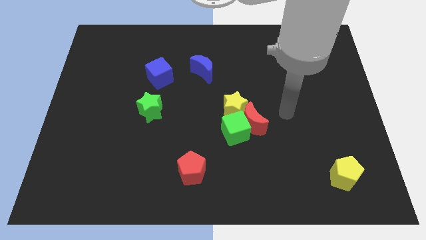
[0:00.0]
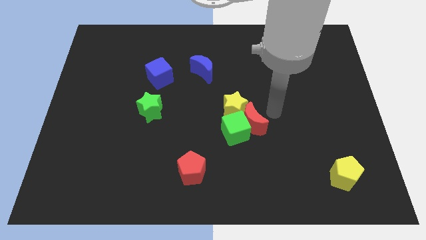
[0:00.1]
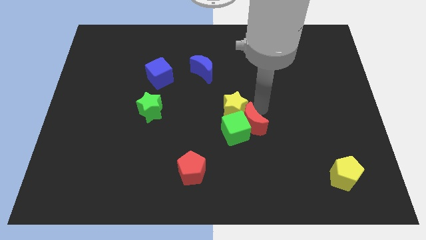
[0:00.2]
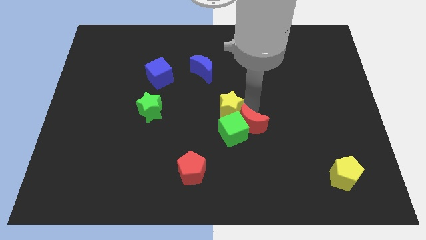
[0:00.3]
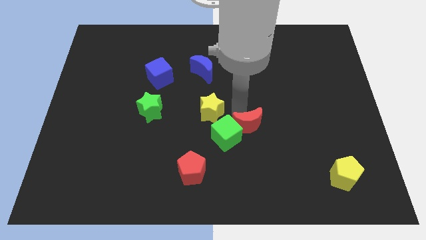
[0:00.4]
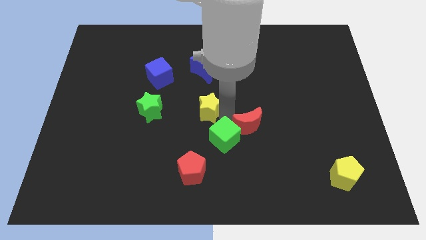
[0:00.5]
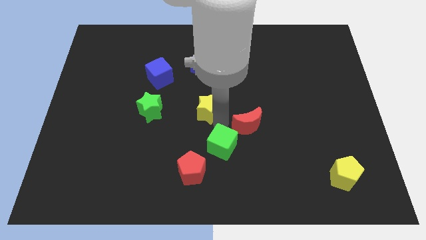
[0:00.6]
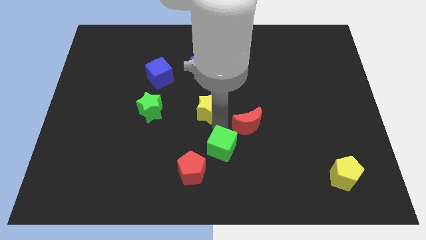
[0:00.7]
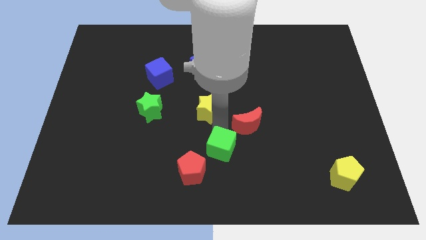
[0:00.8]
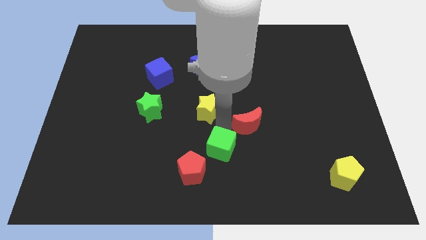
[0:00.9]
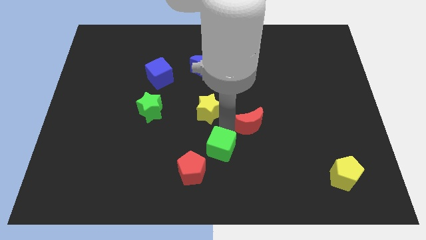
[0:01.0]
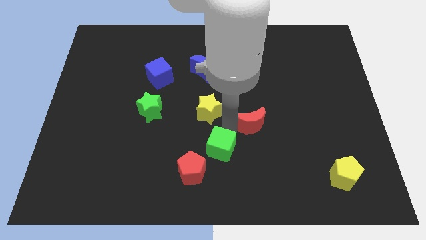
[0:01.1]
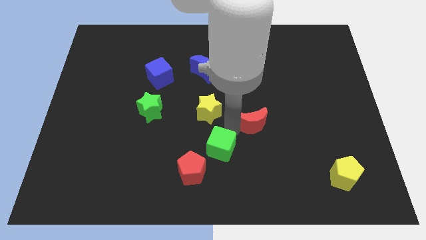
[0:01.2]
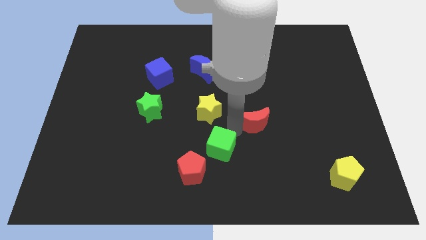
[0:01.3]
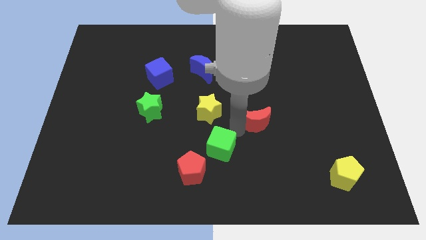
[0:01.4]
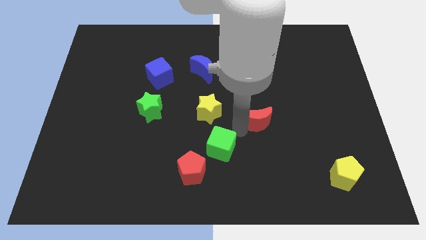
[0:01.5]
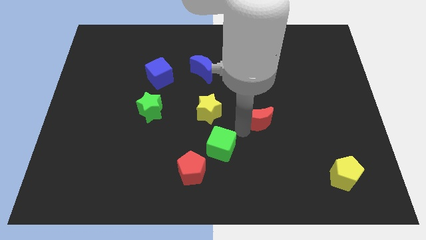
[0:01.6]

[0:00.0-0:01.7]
move the red moon away from the green cube and yellow star

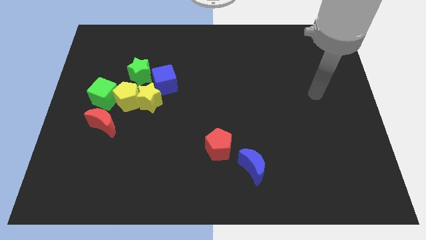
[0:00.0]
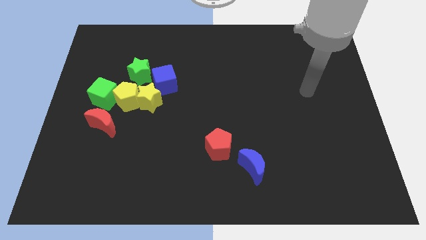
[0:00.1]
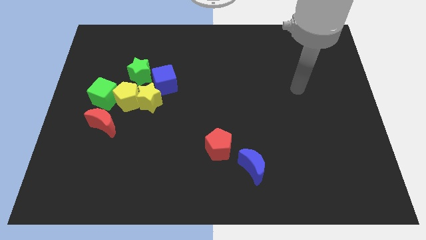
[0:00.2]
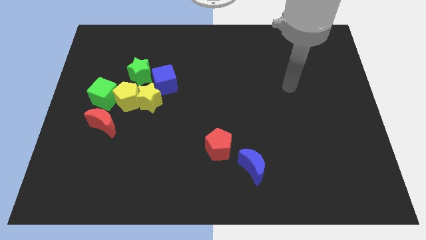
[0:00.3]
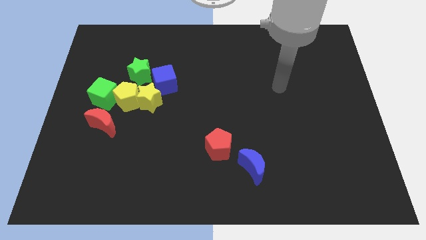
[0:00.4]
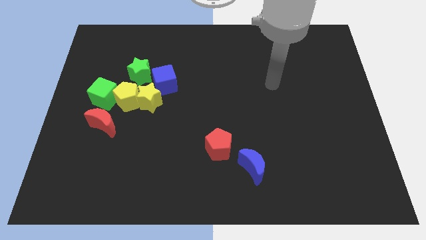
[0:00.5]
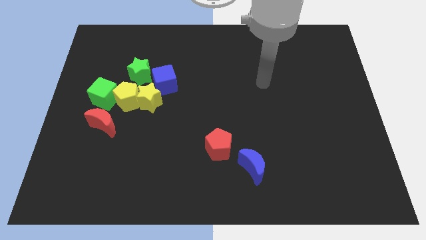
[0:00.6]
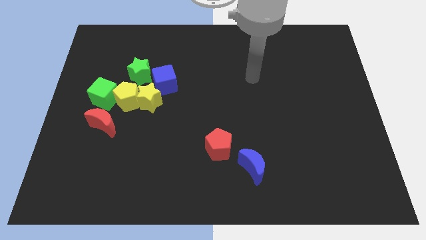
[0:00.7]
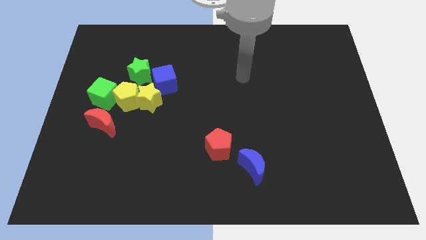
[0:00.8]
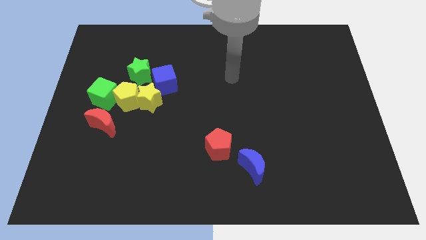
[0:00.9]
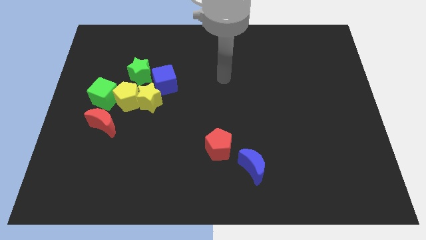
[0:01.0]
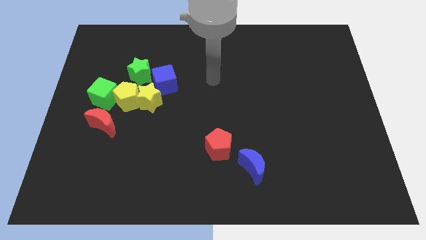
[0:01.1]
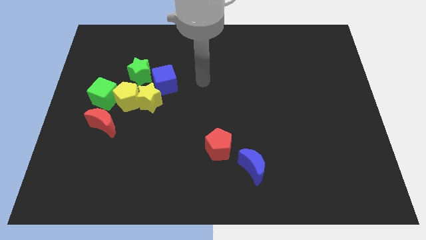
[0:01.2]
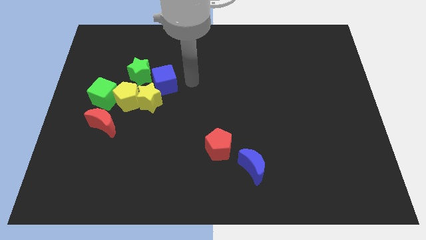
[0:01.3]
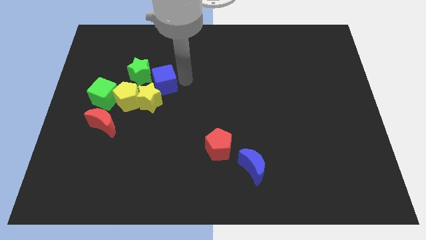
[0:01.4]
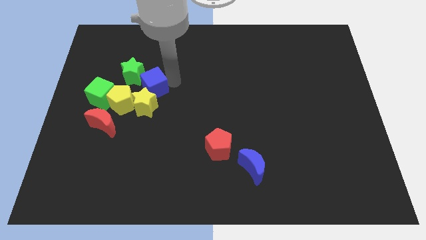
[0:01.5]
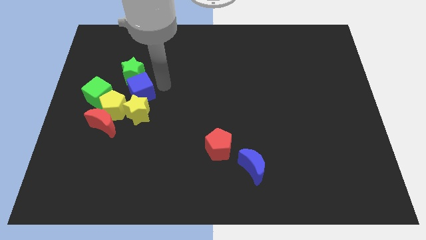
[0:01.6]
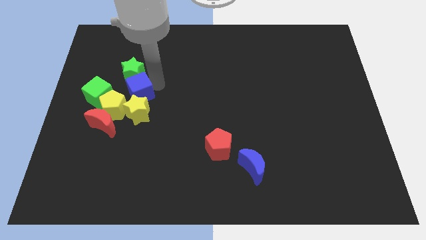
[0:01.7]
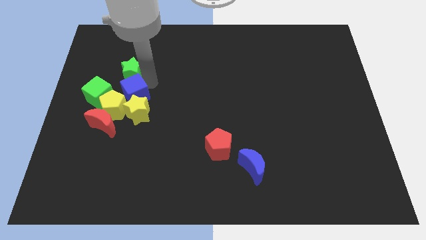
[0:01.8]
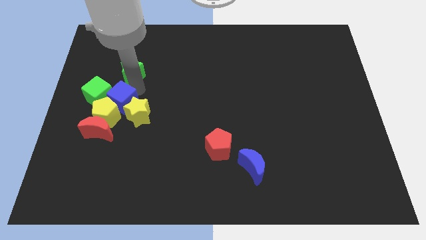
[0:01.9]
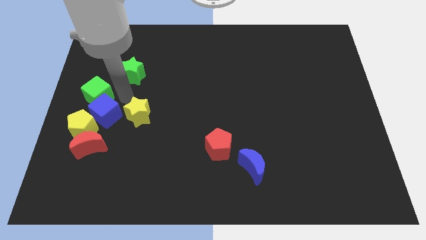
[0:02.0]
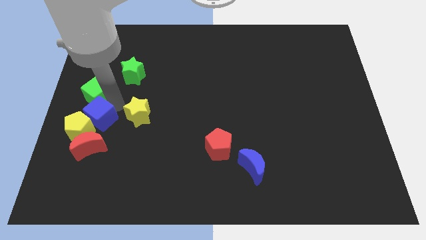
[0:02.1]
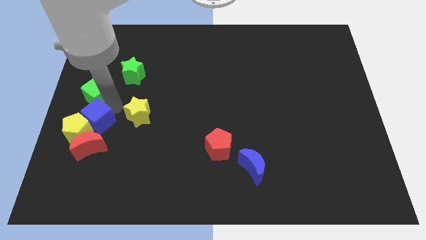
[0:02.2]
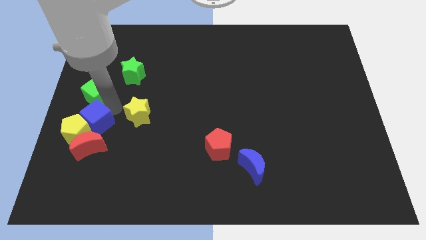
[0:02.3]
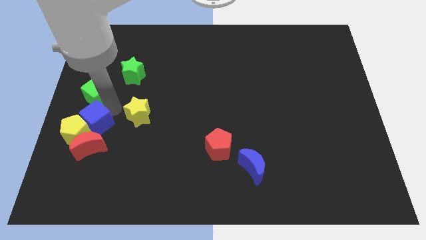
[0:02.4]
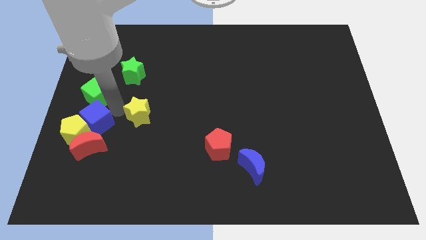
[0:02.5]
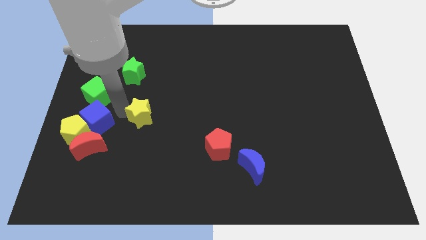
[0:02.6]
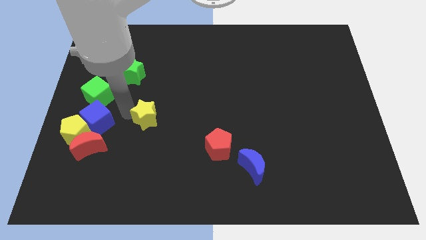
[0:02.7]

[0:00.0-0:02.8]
move the yellow star away from the yellow pentagon, blue cube, and green star

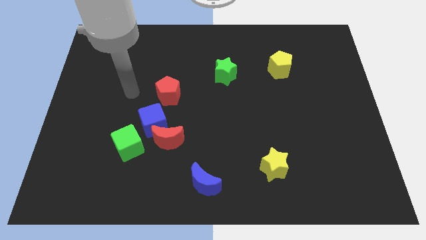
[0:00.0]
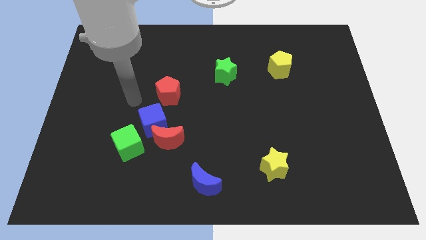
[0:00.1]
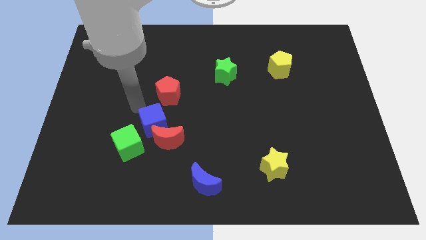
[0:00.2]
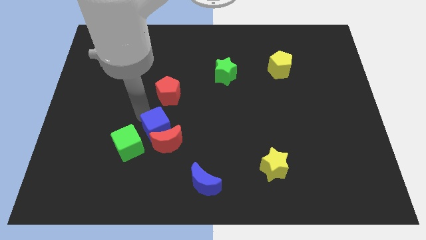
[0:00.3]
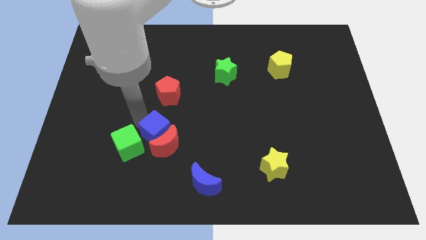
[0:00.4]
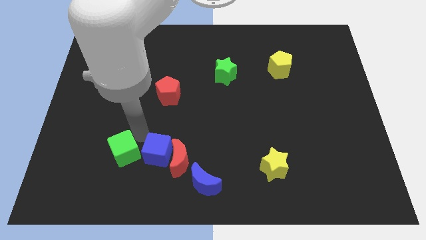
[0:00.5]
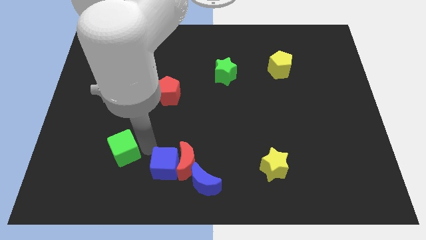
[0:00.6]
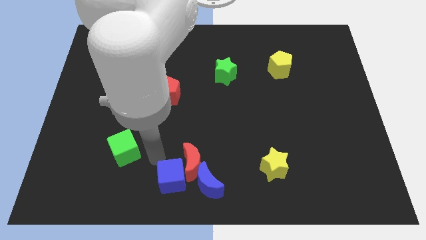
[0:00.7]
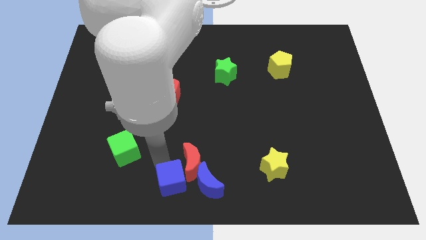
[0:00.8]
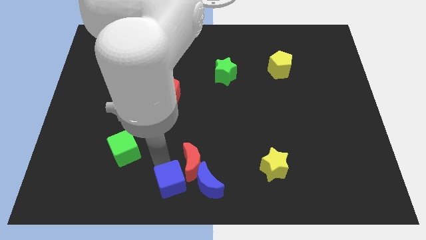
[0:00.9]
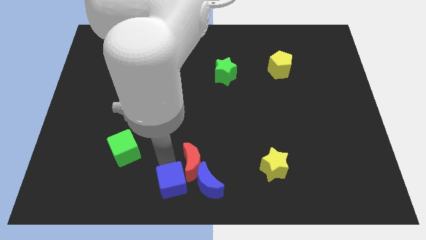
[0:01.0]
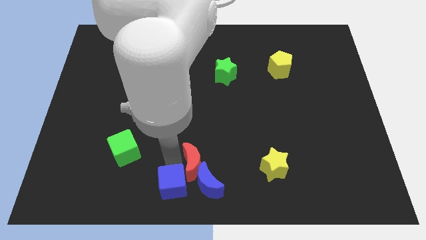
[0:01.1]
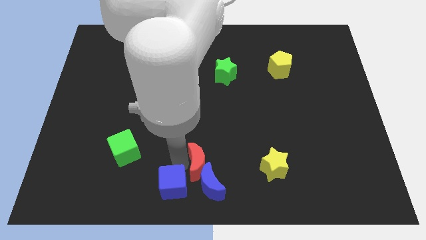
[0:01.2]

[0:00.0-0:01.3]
pull the red moon apart from the blue cube and green cube

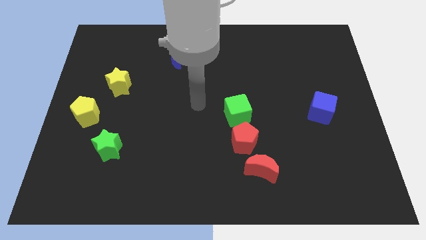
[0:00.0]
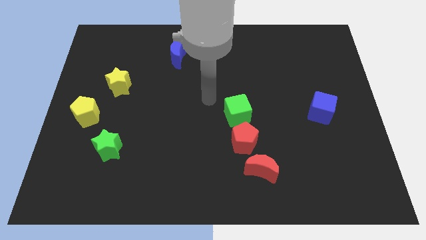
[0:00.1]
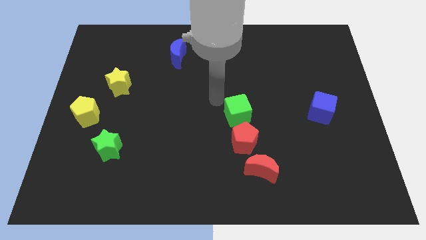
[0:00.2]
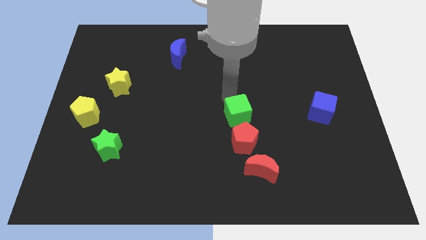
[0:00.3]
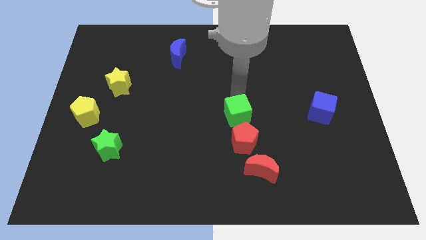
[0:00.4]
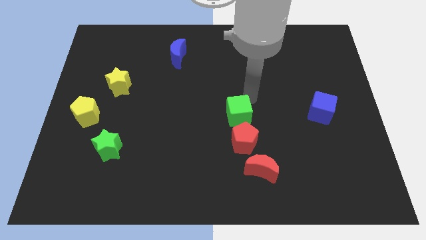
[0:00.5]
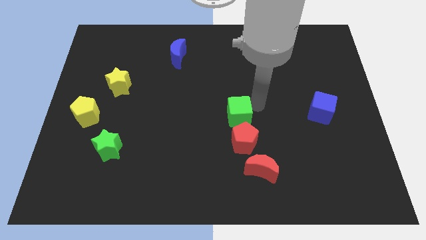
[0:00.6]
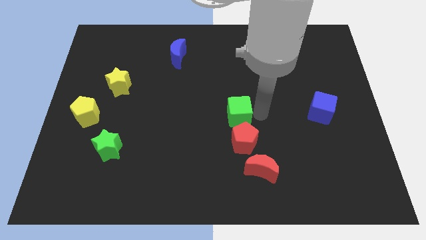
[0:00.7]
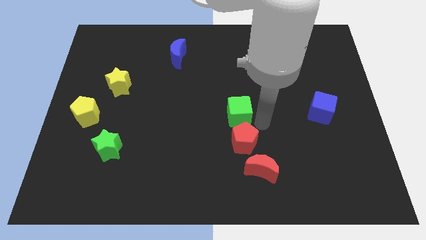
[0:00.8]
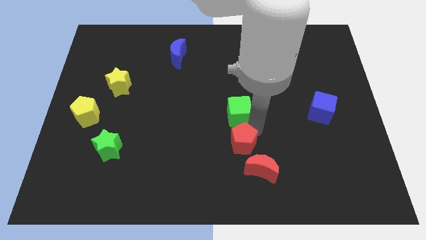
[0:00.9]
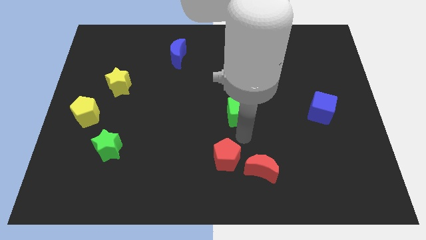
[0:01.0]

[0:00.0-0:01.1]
separate the green cube from the red pentagon

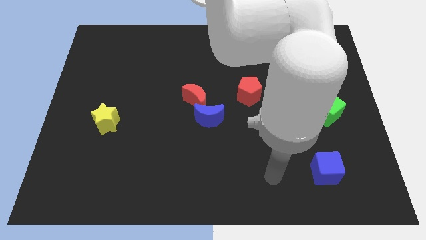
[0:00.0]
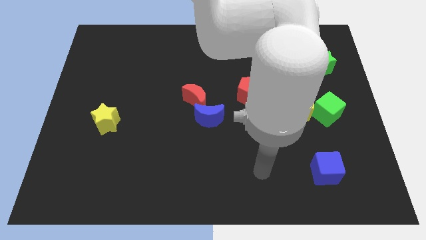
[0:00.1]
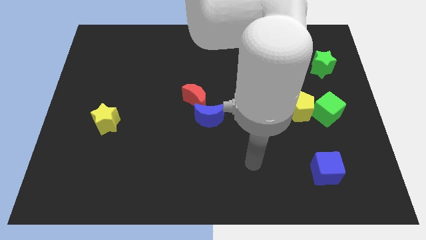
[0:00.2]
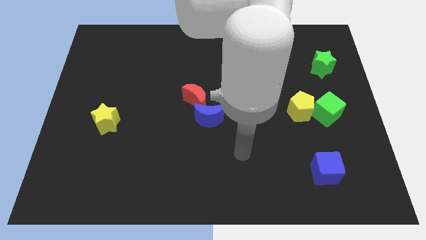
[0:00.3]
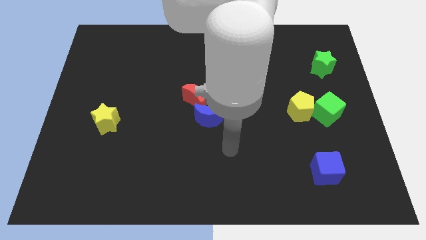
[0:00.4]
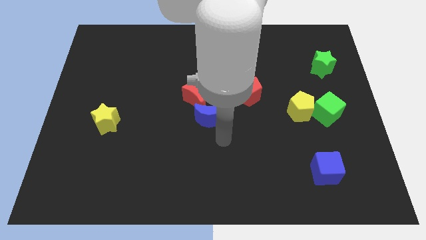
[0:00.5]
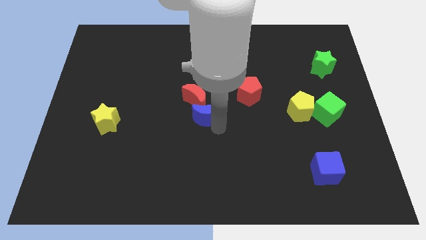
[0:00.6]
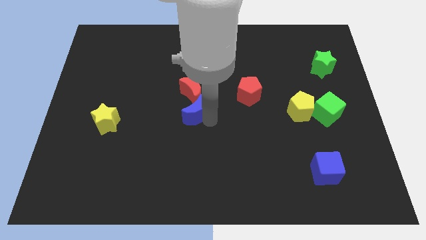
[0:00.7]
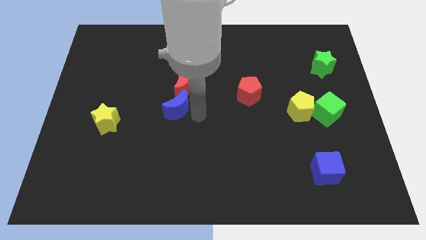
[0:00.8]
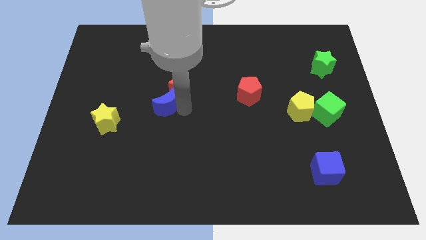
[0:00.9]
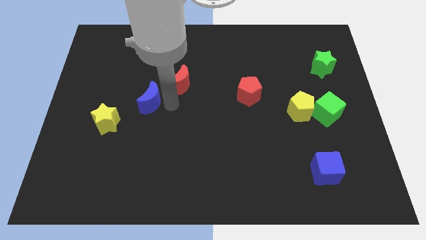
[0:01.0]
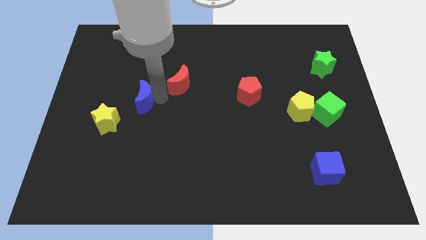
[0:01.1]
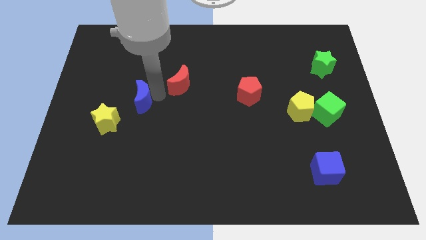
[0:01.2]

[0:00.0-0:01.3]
pull the red moon apart from the blue moon

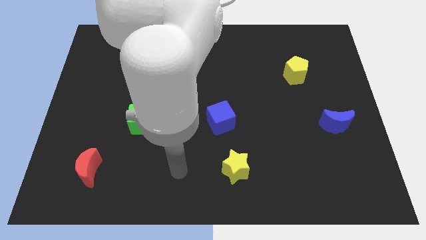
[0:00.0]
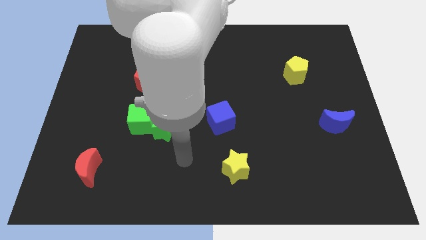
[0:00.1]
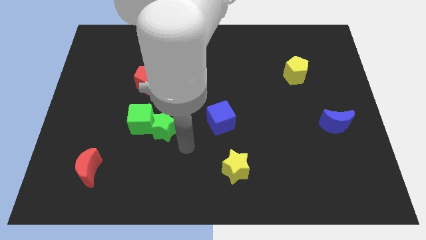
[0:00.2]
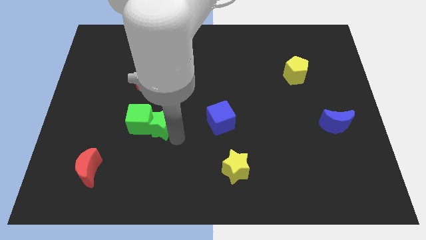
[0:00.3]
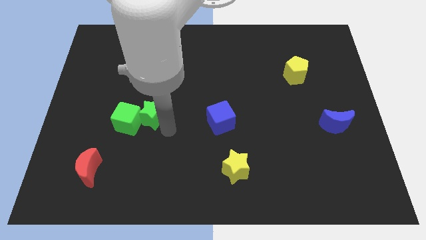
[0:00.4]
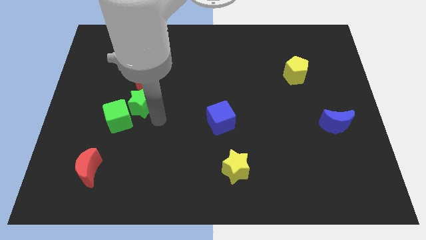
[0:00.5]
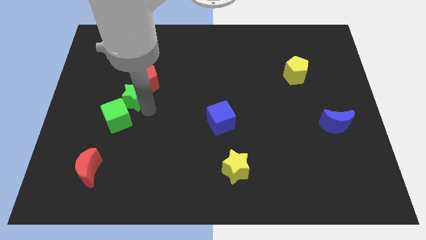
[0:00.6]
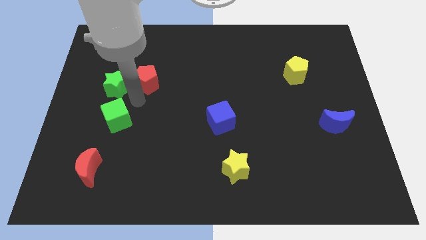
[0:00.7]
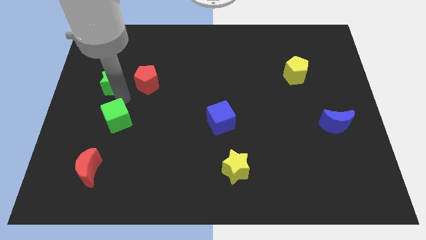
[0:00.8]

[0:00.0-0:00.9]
pull the green cube apart from the green star

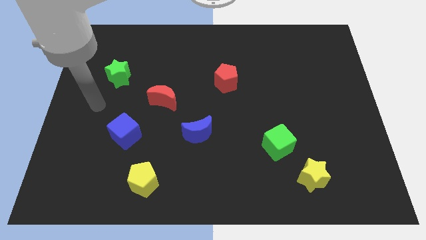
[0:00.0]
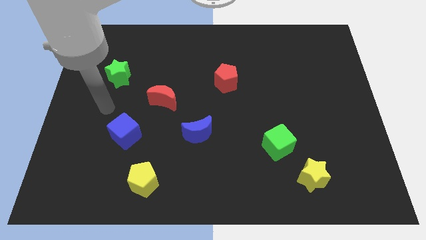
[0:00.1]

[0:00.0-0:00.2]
move the green cube away from the yellow star
